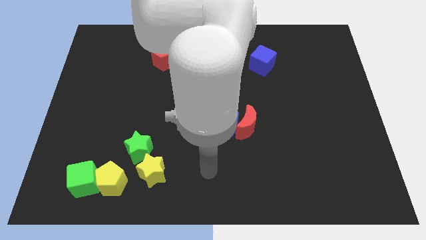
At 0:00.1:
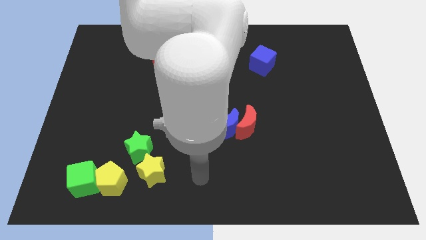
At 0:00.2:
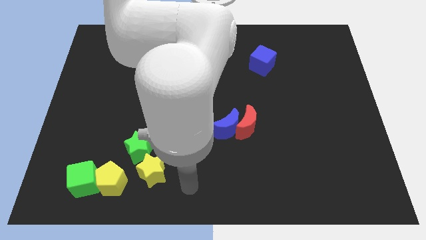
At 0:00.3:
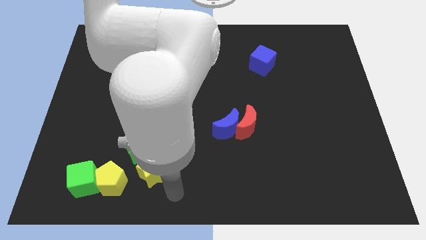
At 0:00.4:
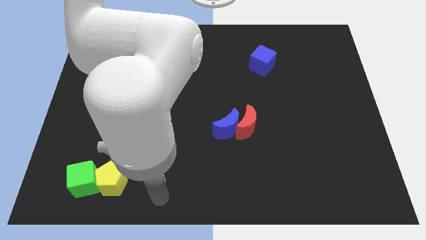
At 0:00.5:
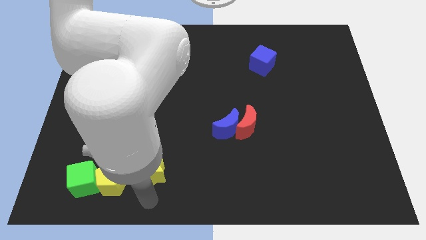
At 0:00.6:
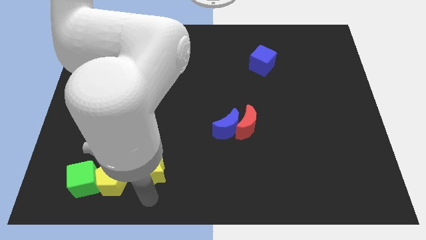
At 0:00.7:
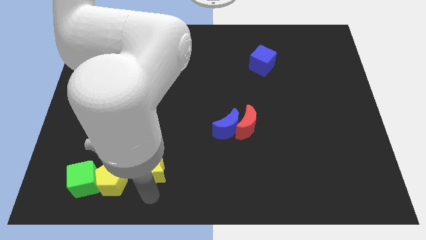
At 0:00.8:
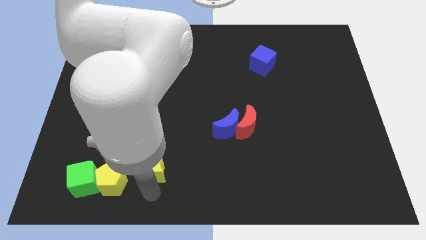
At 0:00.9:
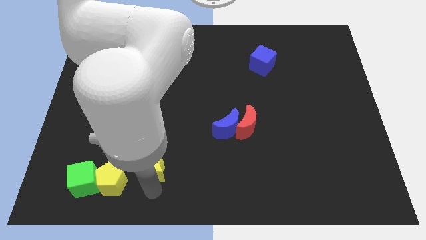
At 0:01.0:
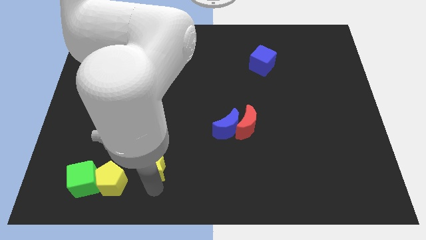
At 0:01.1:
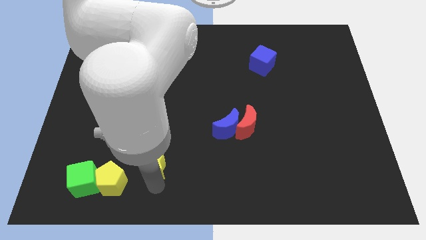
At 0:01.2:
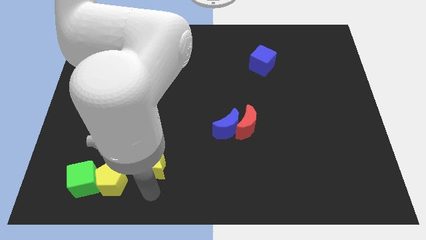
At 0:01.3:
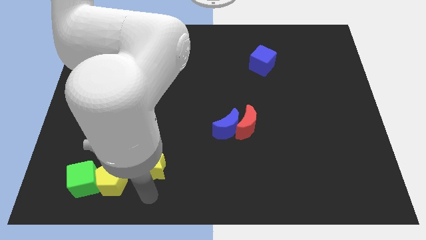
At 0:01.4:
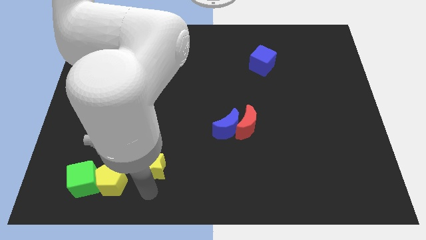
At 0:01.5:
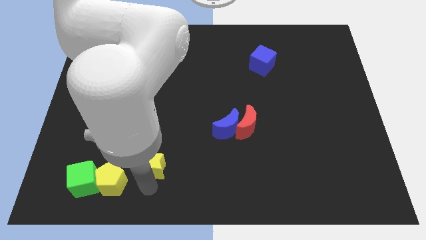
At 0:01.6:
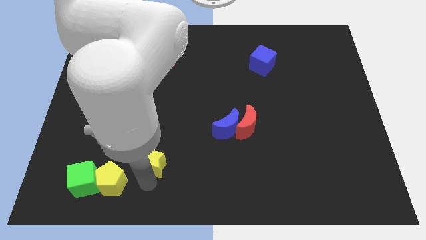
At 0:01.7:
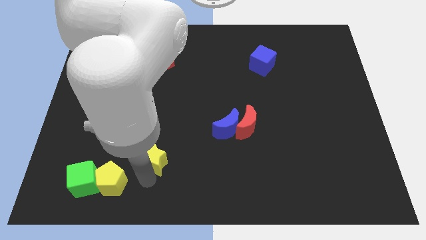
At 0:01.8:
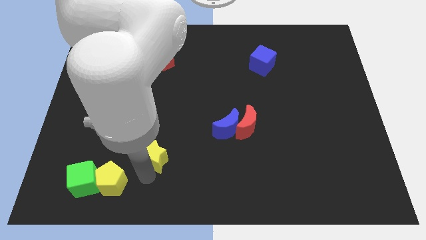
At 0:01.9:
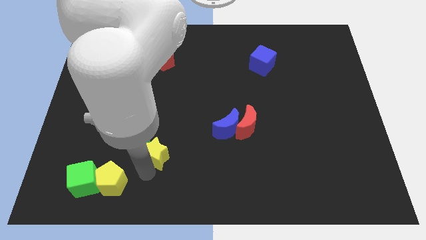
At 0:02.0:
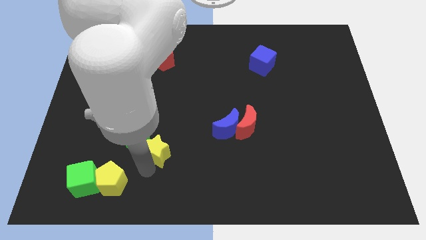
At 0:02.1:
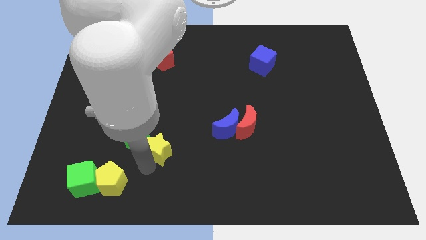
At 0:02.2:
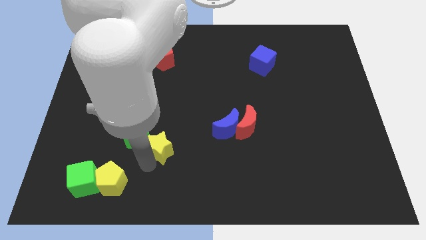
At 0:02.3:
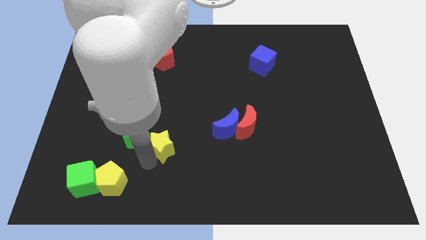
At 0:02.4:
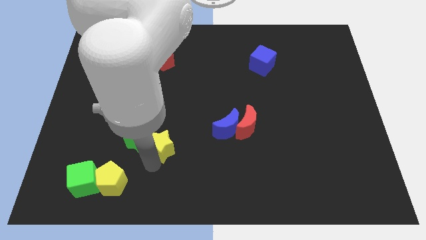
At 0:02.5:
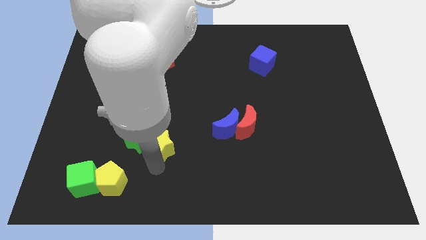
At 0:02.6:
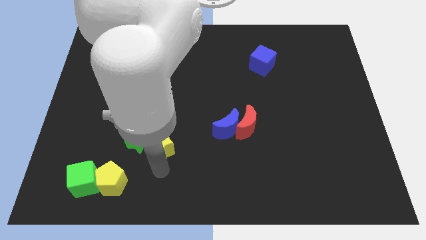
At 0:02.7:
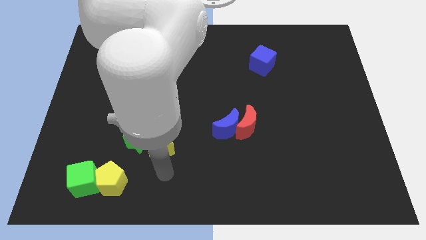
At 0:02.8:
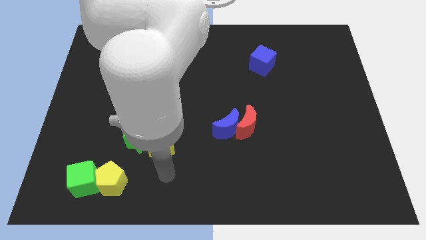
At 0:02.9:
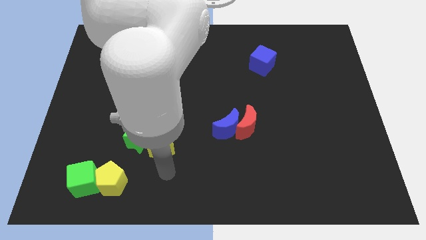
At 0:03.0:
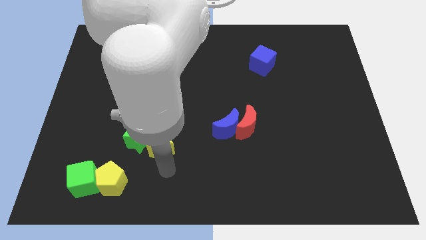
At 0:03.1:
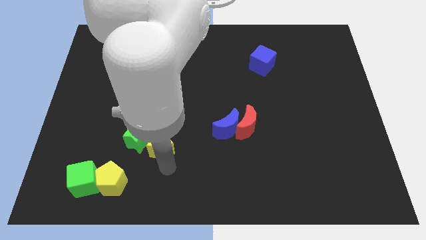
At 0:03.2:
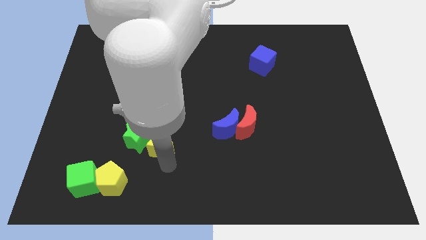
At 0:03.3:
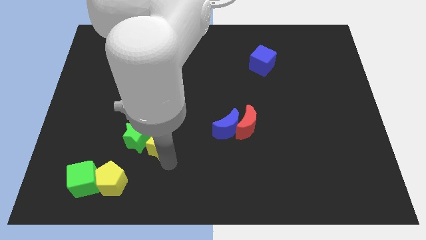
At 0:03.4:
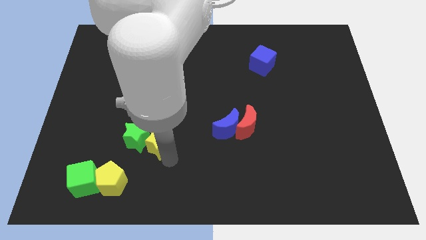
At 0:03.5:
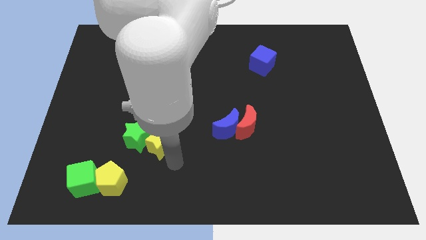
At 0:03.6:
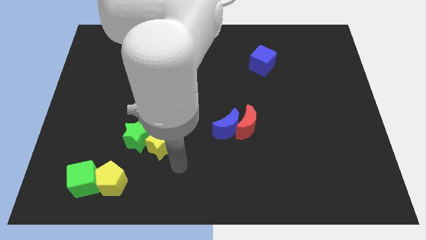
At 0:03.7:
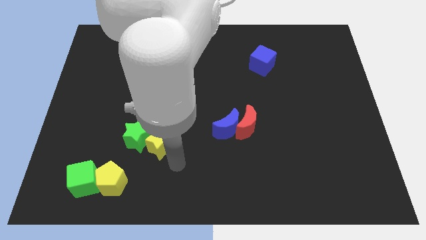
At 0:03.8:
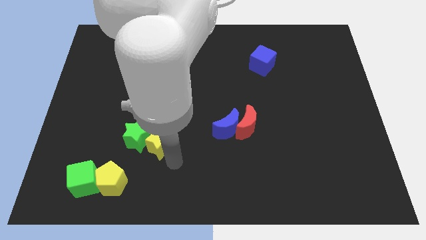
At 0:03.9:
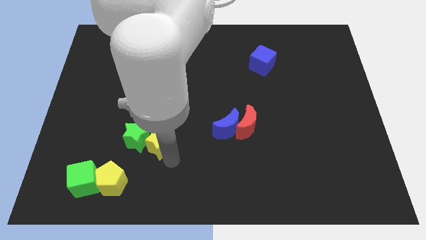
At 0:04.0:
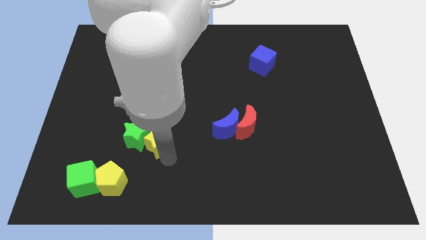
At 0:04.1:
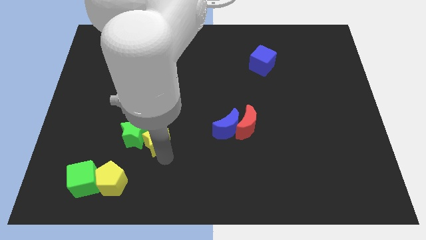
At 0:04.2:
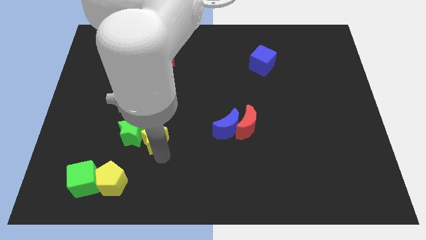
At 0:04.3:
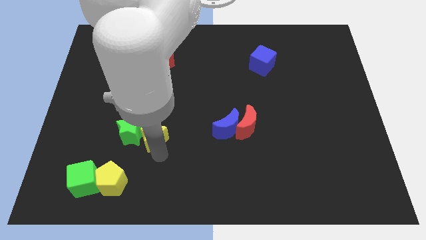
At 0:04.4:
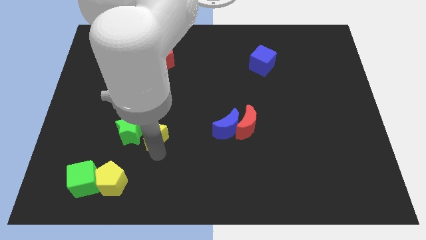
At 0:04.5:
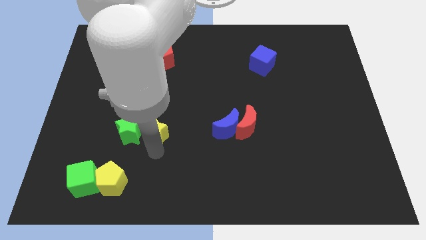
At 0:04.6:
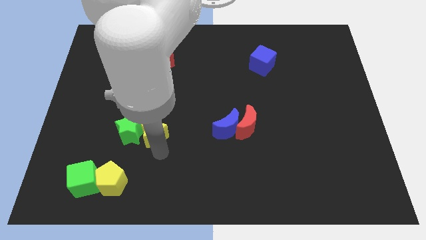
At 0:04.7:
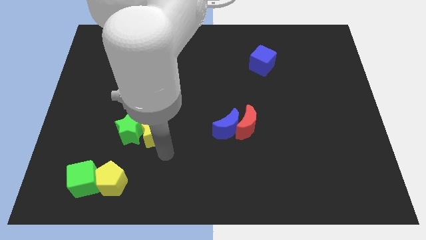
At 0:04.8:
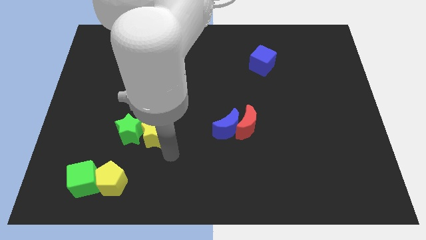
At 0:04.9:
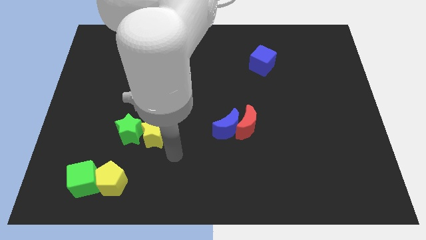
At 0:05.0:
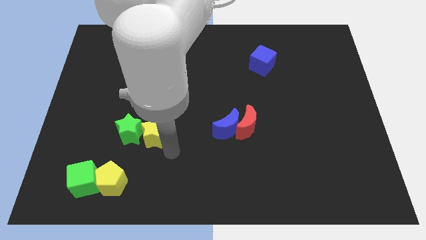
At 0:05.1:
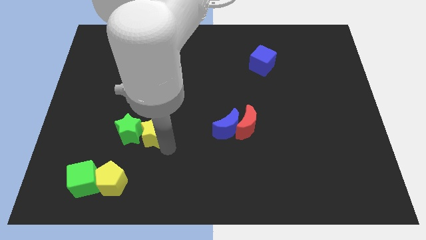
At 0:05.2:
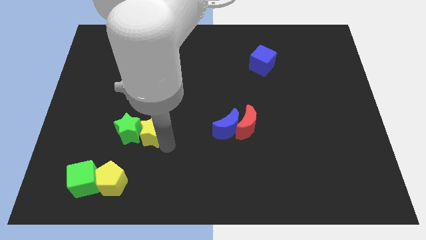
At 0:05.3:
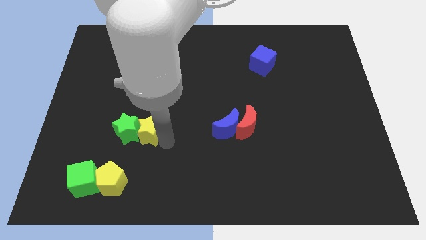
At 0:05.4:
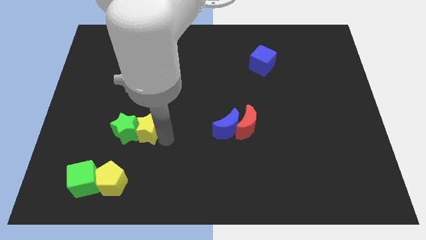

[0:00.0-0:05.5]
push the yellow star a little upwards and left

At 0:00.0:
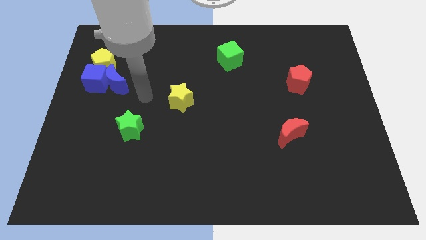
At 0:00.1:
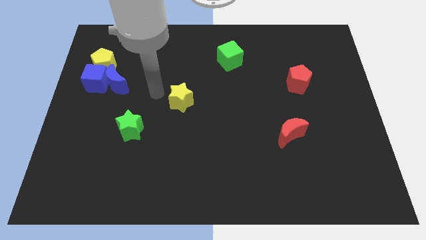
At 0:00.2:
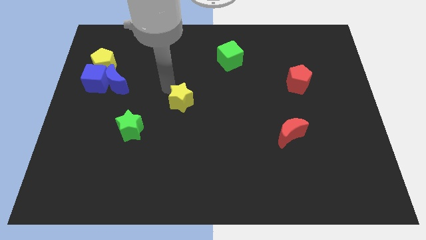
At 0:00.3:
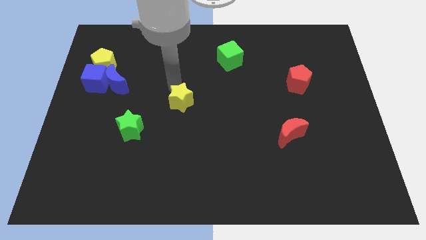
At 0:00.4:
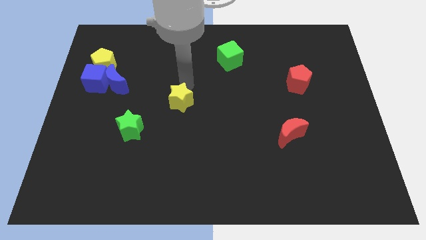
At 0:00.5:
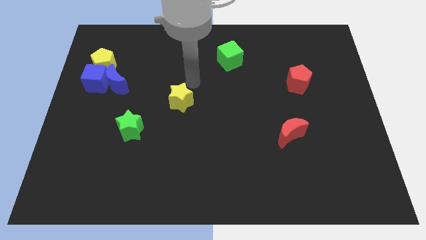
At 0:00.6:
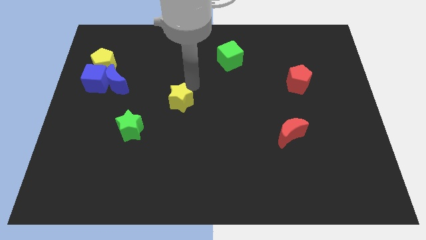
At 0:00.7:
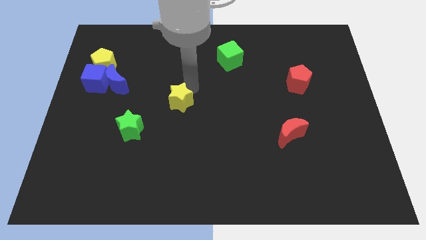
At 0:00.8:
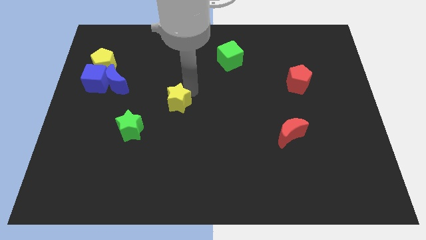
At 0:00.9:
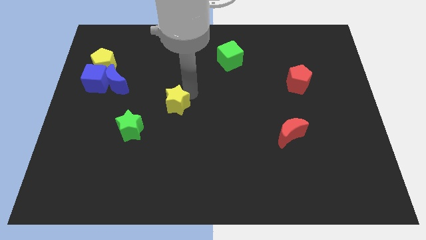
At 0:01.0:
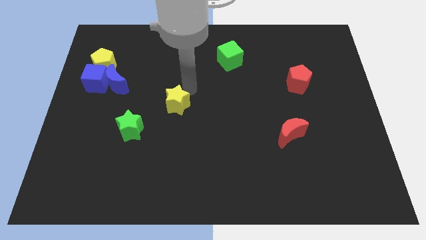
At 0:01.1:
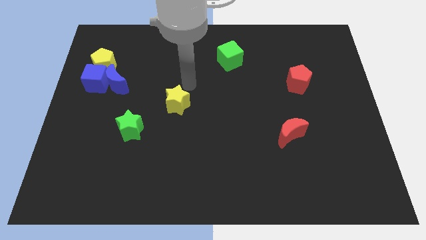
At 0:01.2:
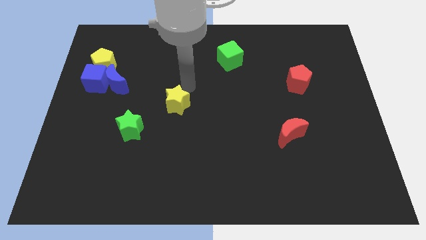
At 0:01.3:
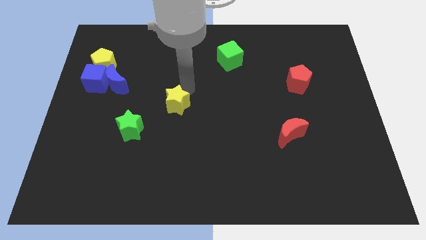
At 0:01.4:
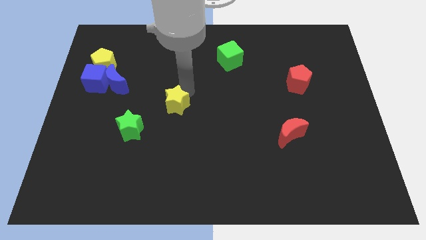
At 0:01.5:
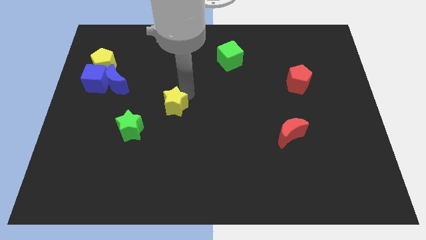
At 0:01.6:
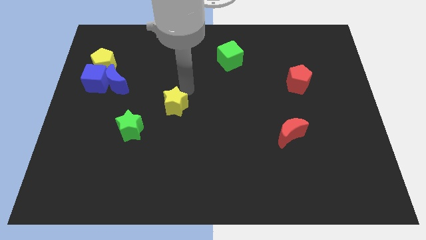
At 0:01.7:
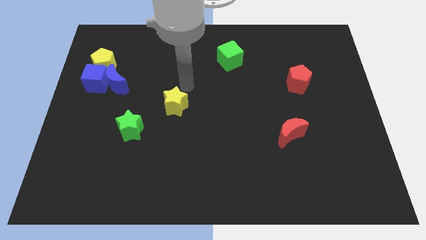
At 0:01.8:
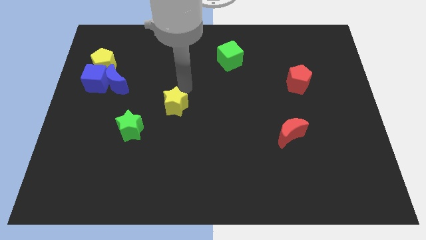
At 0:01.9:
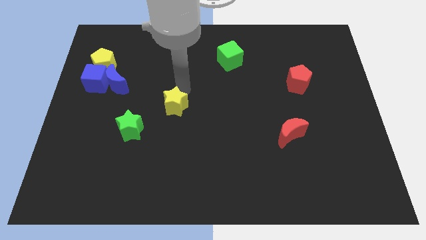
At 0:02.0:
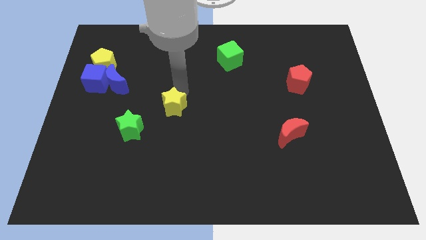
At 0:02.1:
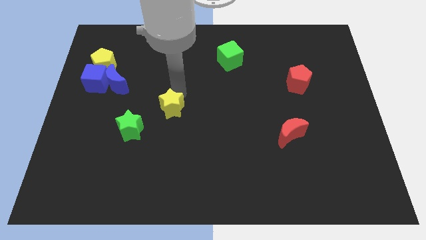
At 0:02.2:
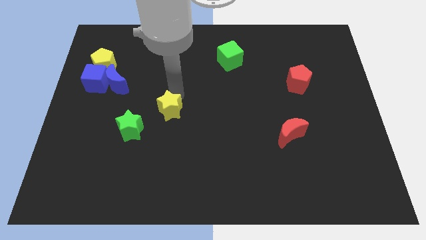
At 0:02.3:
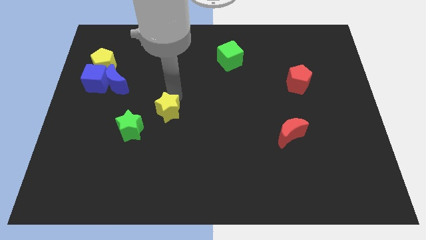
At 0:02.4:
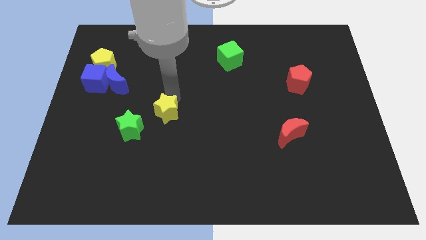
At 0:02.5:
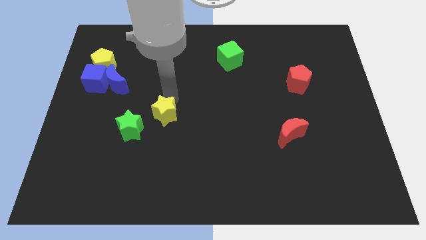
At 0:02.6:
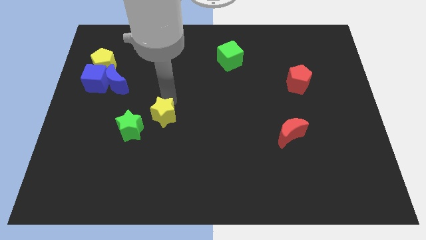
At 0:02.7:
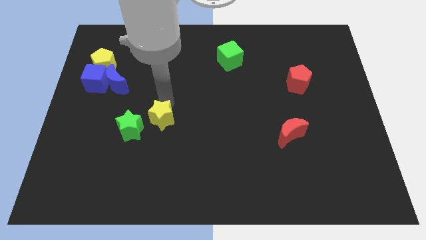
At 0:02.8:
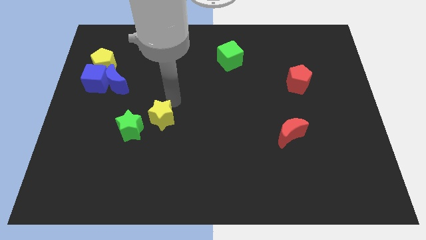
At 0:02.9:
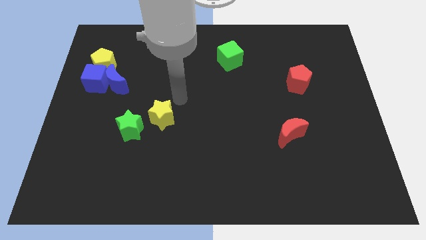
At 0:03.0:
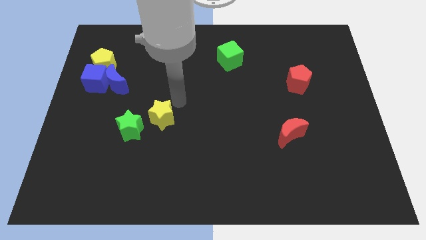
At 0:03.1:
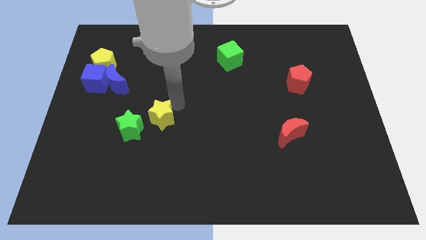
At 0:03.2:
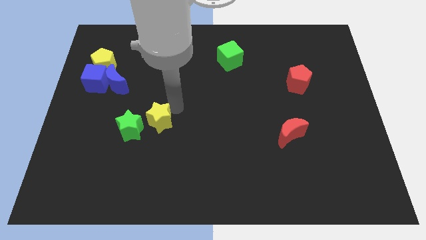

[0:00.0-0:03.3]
push the yellow star down and to the left diagonally a little
